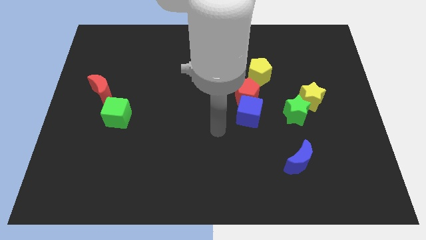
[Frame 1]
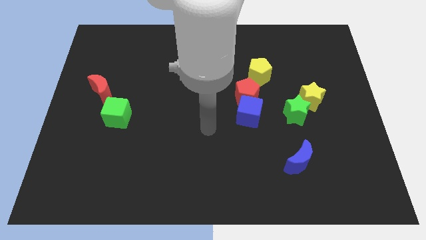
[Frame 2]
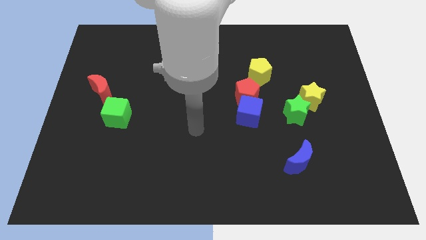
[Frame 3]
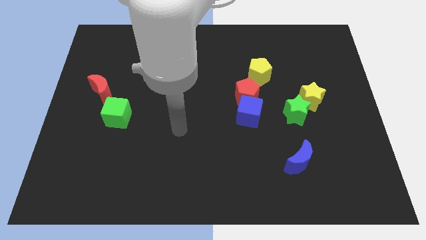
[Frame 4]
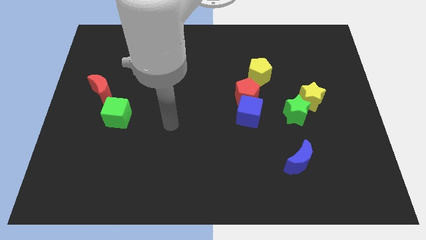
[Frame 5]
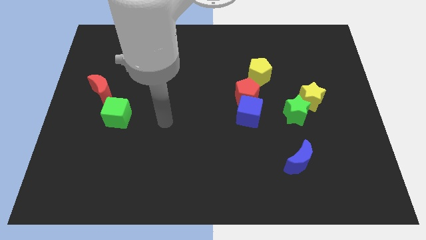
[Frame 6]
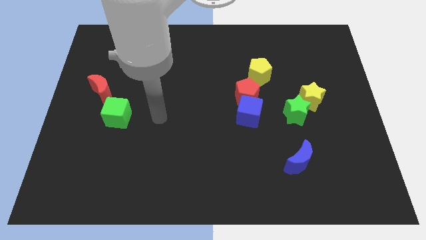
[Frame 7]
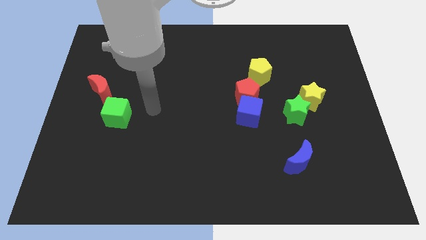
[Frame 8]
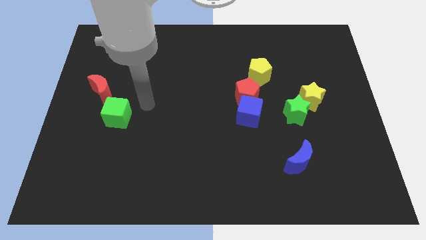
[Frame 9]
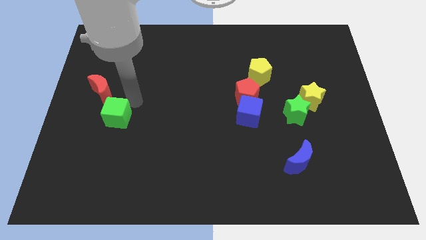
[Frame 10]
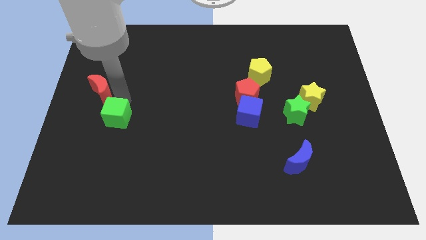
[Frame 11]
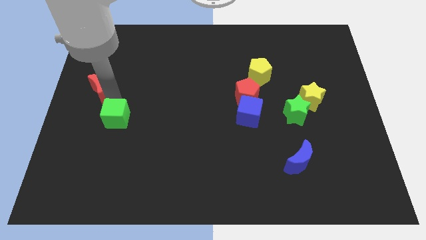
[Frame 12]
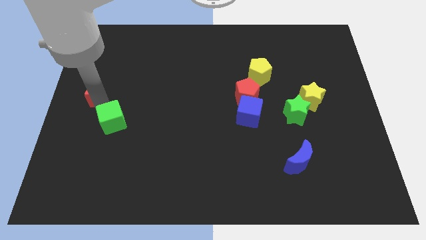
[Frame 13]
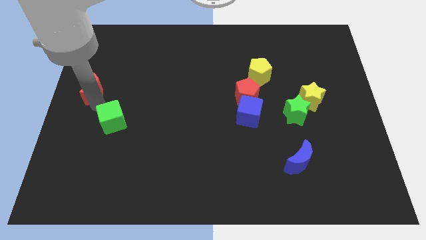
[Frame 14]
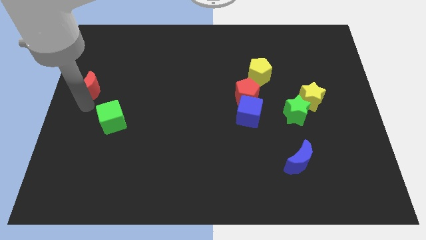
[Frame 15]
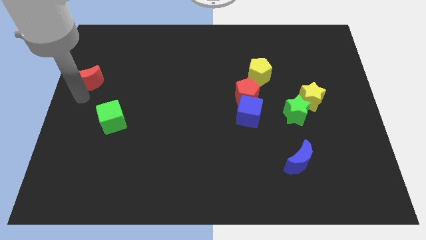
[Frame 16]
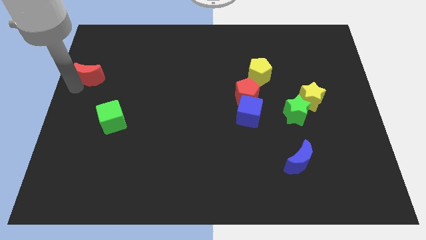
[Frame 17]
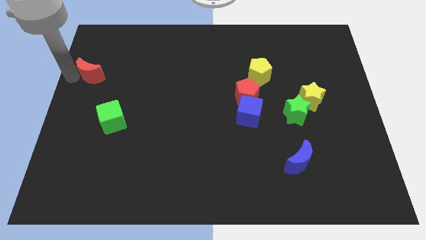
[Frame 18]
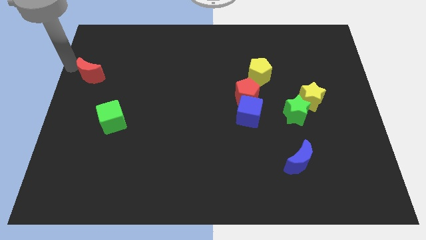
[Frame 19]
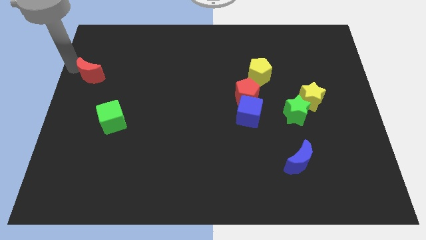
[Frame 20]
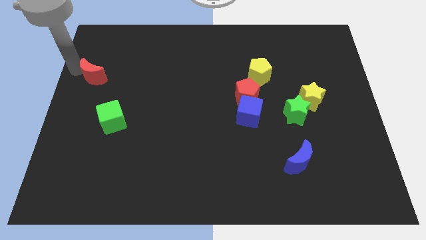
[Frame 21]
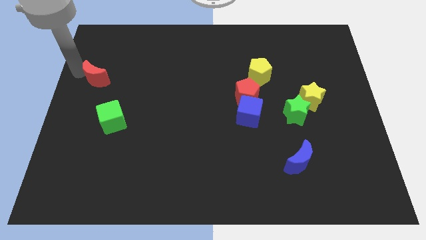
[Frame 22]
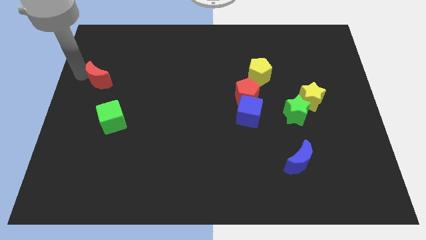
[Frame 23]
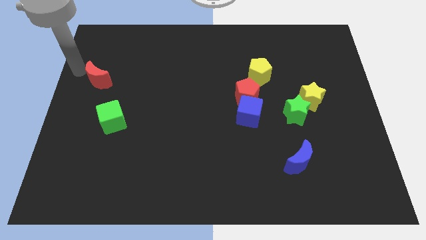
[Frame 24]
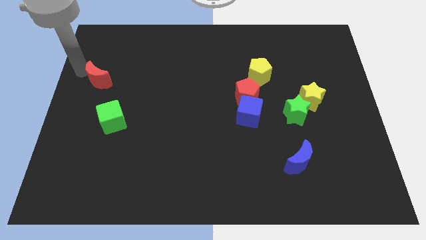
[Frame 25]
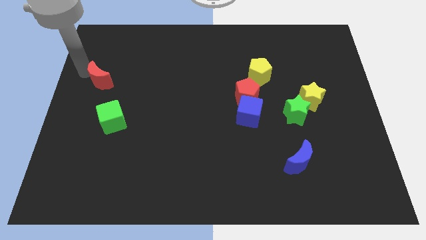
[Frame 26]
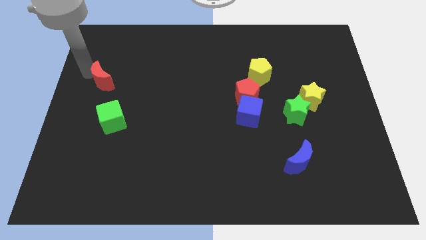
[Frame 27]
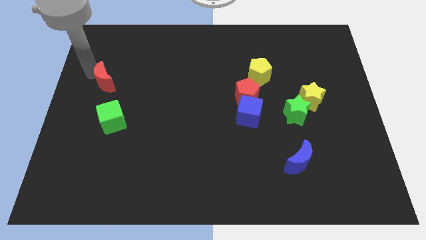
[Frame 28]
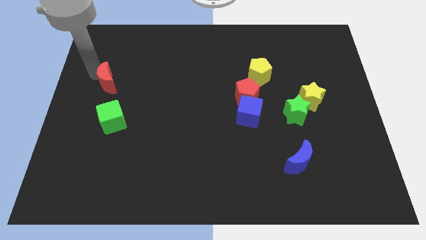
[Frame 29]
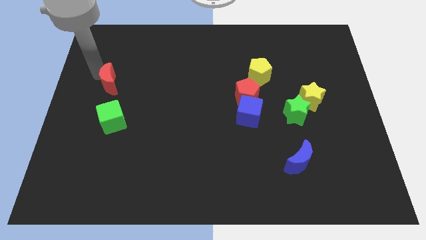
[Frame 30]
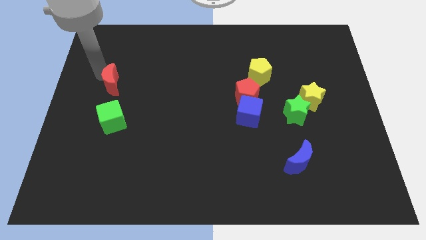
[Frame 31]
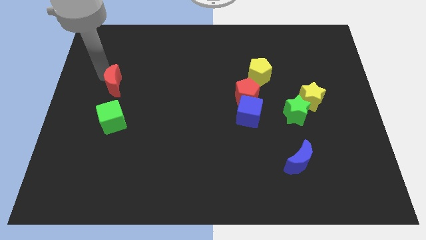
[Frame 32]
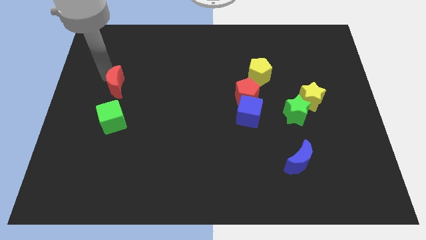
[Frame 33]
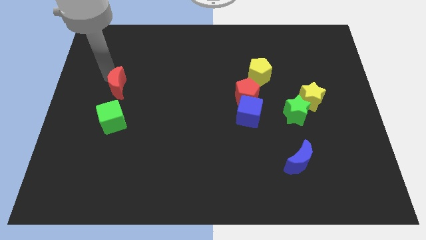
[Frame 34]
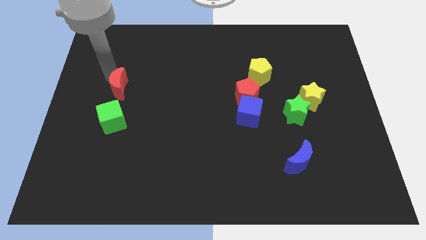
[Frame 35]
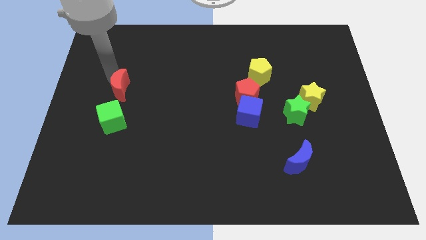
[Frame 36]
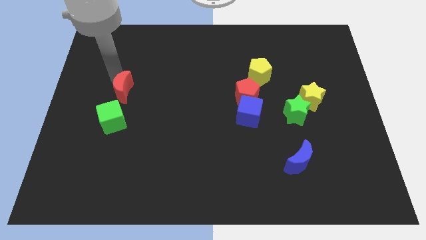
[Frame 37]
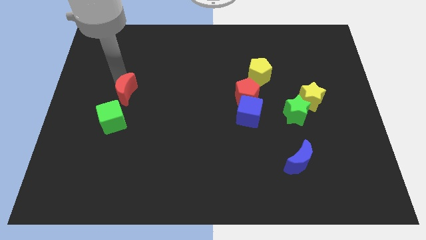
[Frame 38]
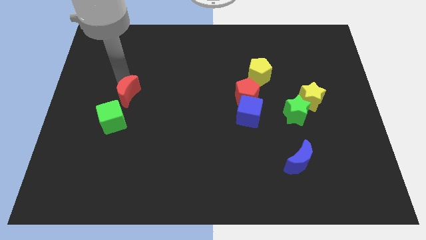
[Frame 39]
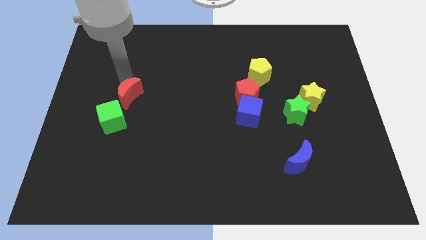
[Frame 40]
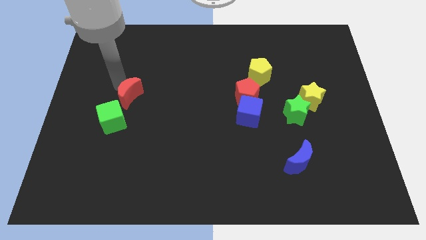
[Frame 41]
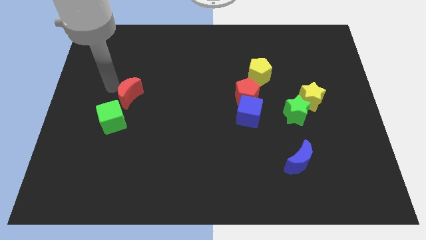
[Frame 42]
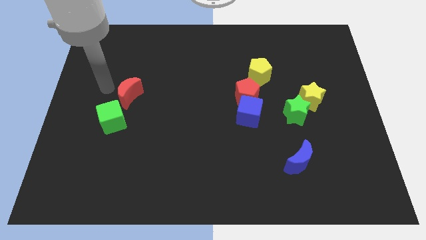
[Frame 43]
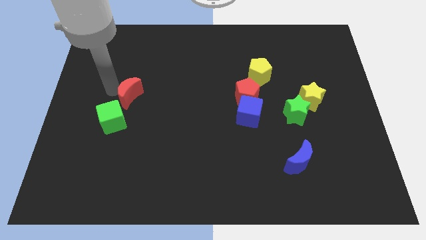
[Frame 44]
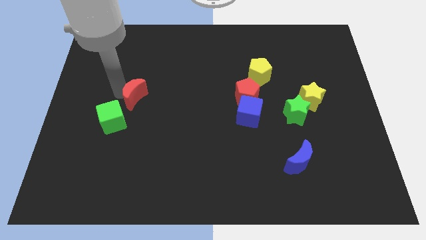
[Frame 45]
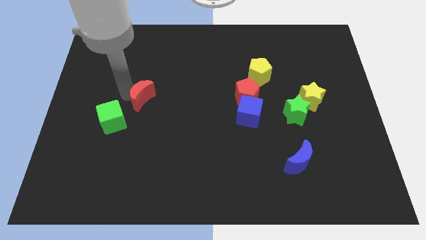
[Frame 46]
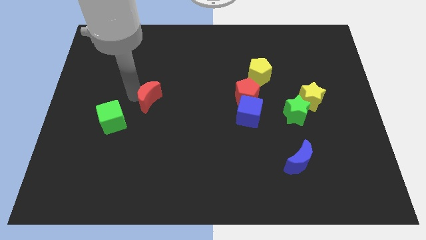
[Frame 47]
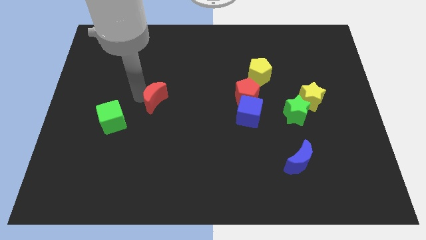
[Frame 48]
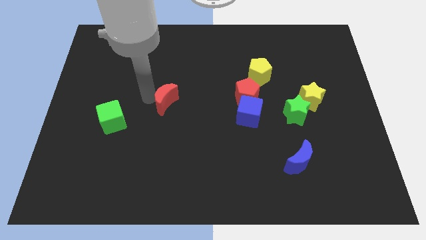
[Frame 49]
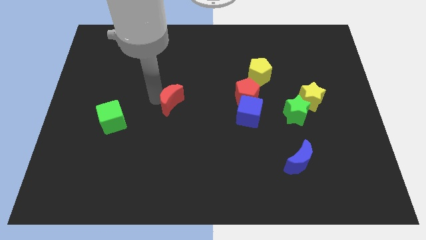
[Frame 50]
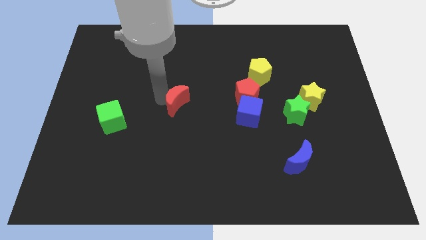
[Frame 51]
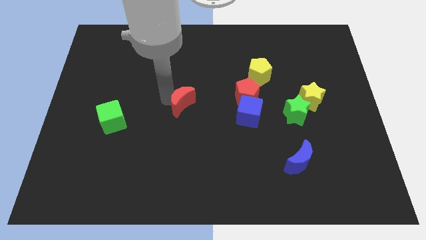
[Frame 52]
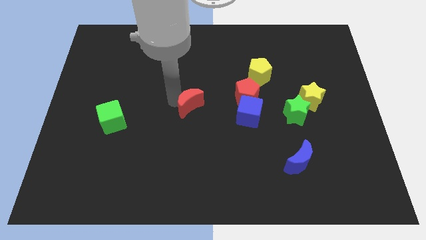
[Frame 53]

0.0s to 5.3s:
put the red moon just left of the blue cube

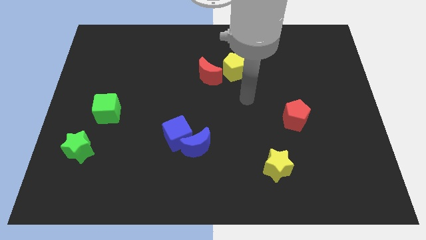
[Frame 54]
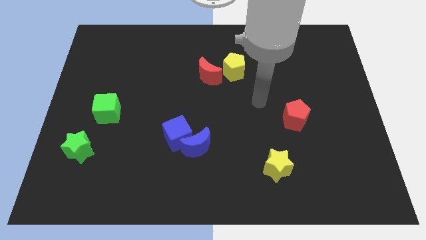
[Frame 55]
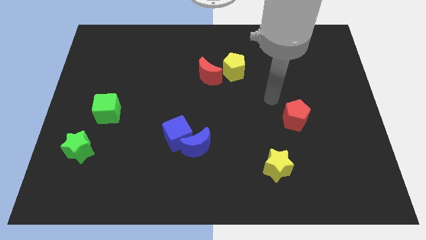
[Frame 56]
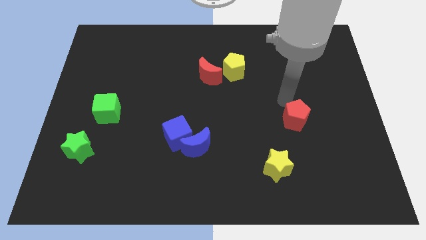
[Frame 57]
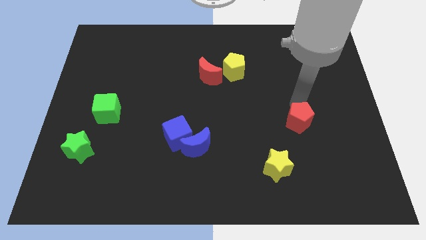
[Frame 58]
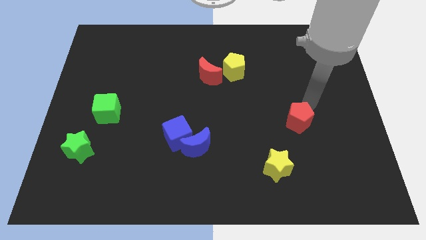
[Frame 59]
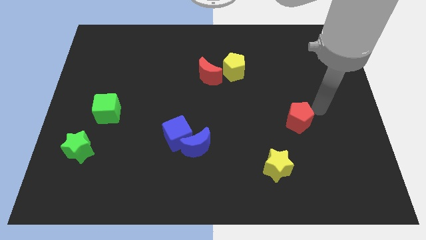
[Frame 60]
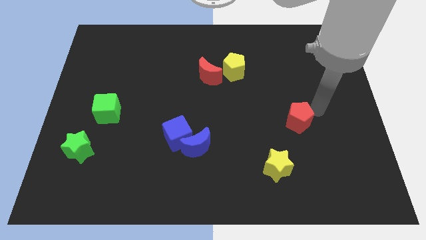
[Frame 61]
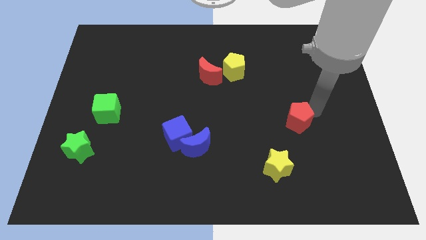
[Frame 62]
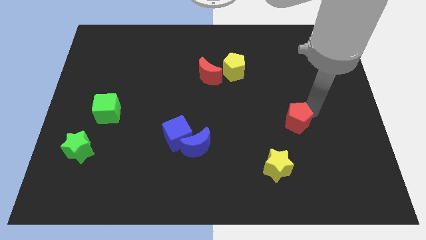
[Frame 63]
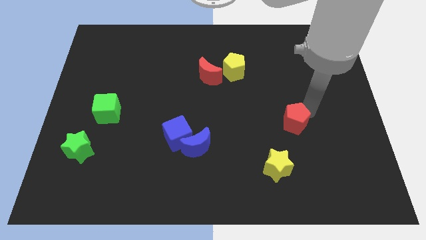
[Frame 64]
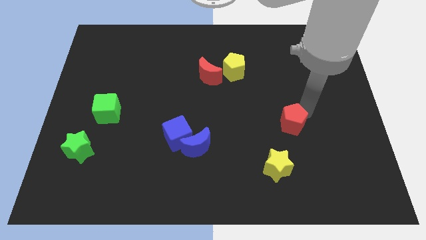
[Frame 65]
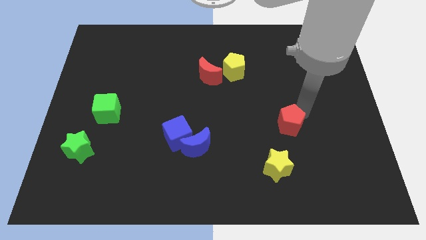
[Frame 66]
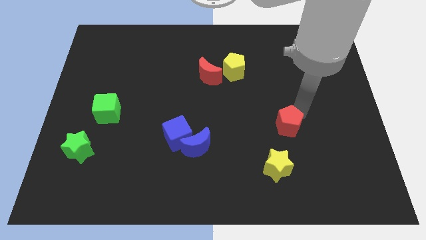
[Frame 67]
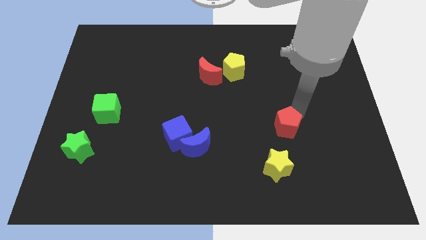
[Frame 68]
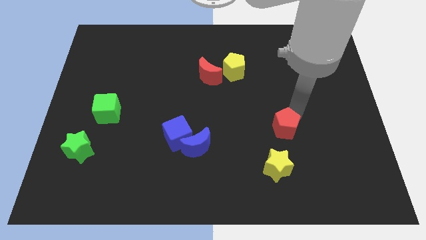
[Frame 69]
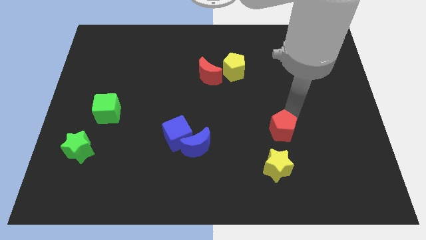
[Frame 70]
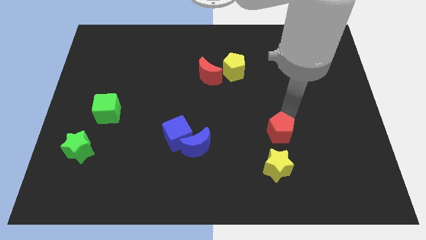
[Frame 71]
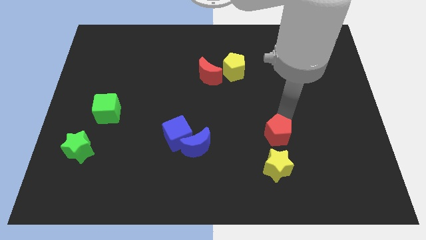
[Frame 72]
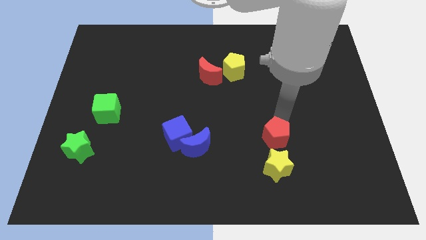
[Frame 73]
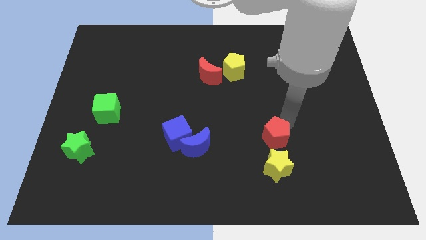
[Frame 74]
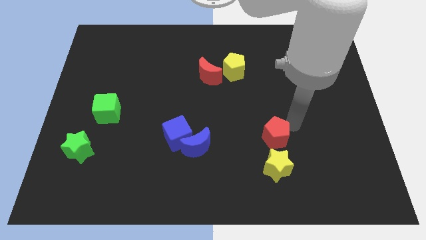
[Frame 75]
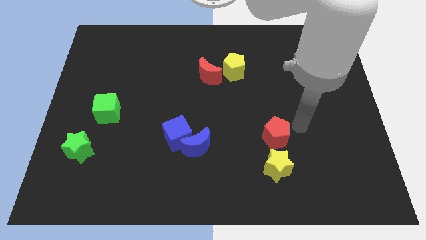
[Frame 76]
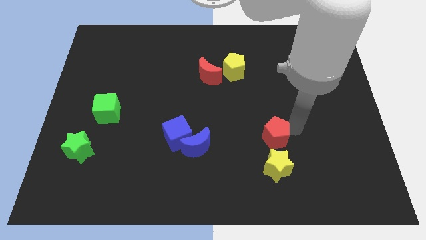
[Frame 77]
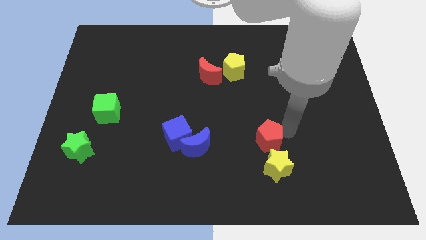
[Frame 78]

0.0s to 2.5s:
slide the red pentagon right of the blue moon

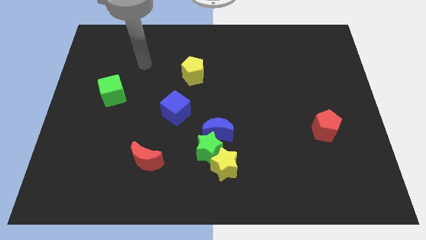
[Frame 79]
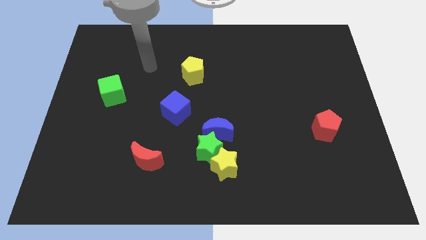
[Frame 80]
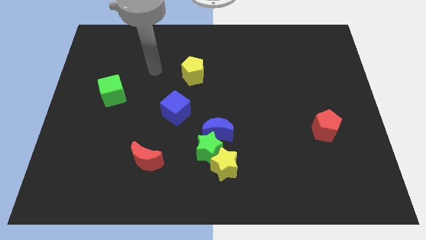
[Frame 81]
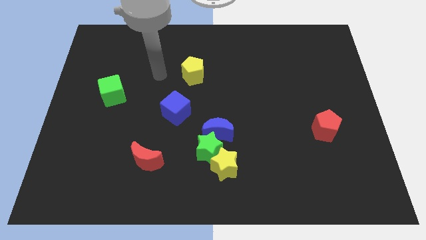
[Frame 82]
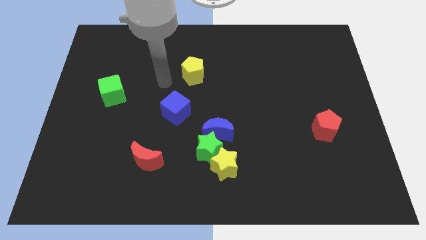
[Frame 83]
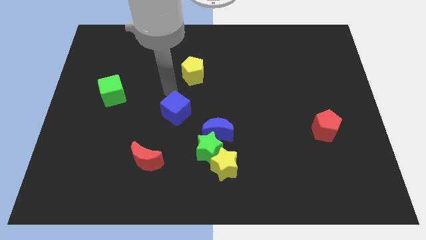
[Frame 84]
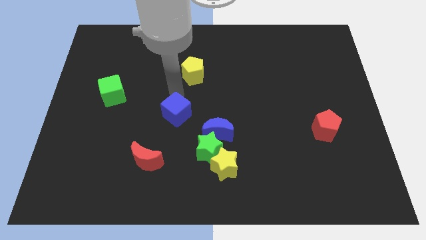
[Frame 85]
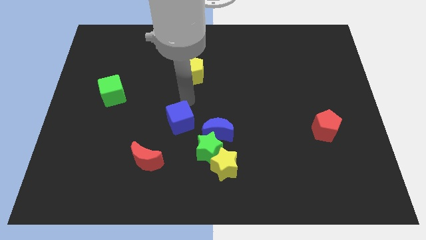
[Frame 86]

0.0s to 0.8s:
push the blue moon to the right side of the blue cube
